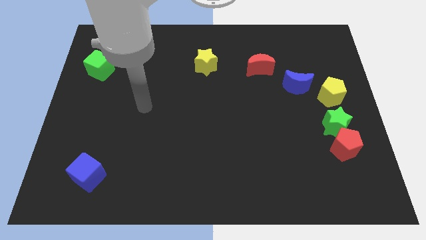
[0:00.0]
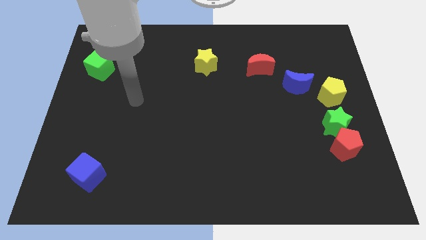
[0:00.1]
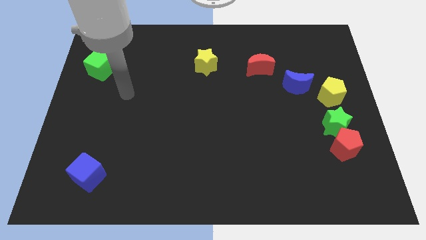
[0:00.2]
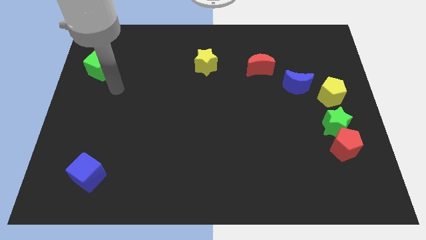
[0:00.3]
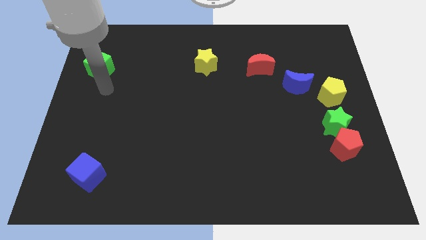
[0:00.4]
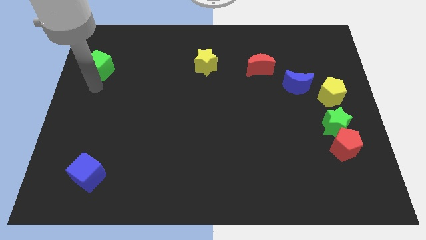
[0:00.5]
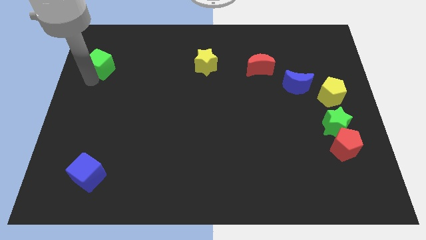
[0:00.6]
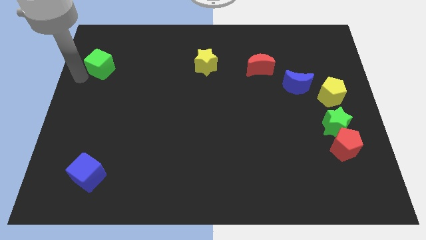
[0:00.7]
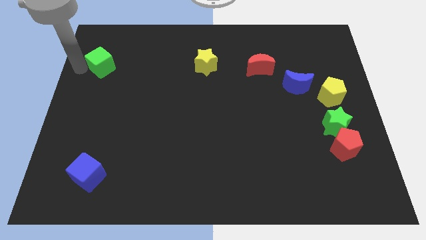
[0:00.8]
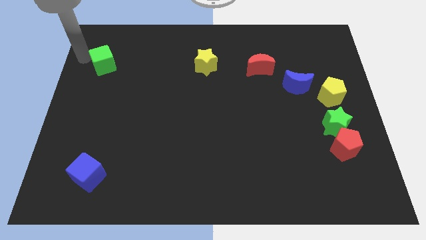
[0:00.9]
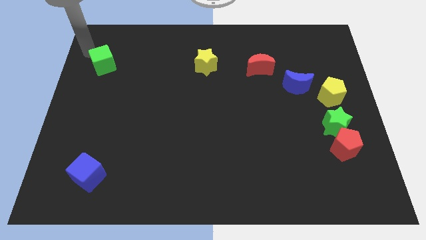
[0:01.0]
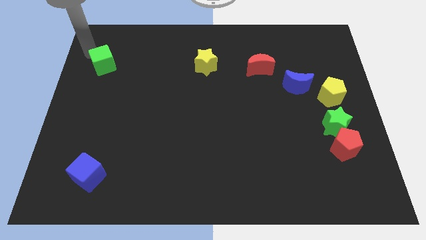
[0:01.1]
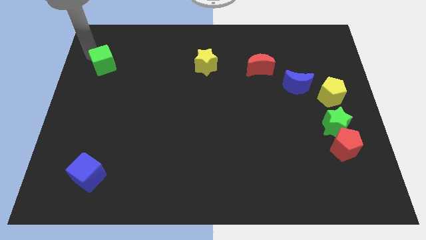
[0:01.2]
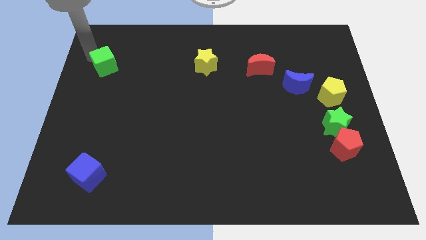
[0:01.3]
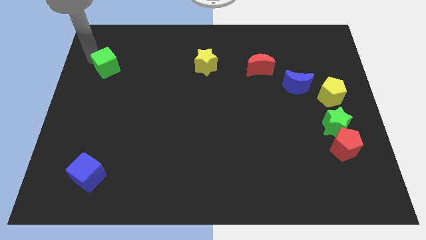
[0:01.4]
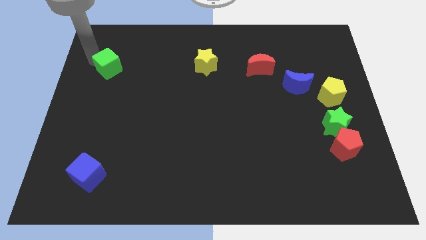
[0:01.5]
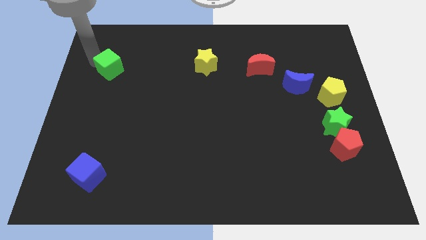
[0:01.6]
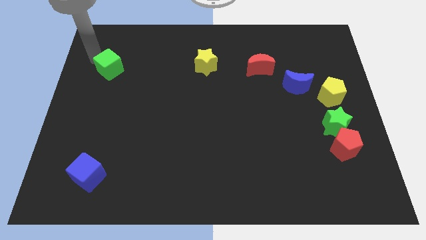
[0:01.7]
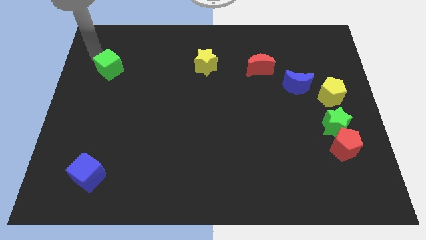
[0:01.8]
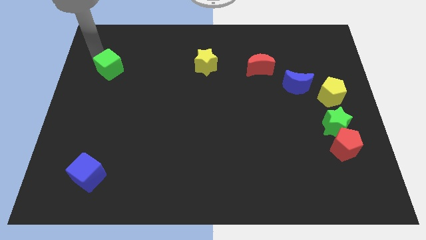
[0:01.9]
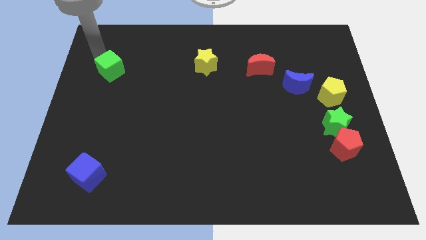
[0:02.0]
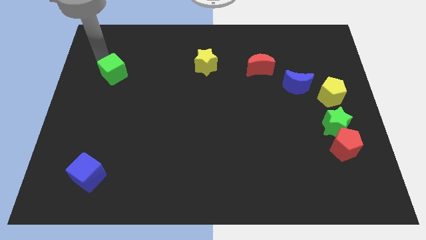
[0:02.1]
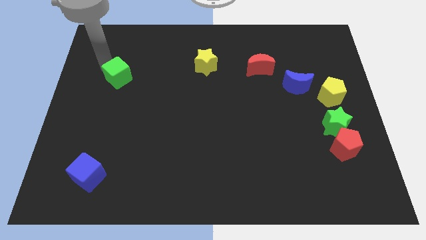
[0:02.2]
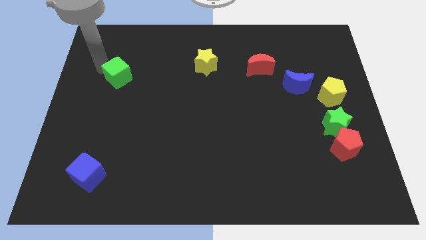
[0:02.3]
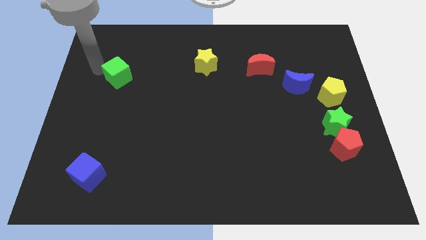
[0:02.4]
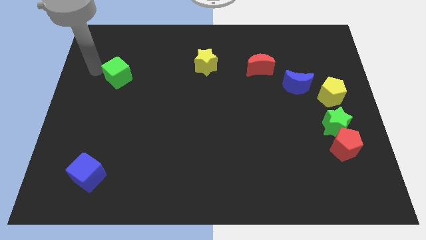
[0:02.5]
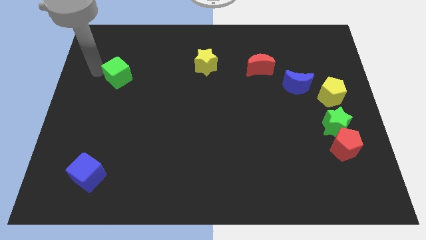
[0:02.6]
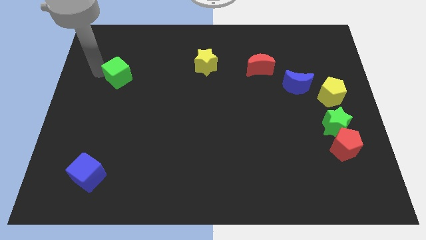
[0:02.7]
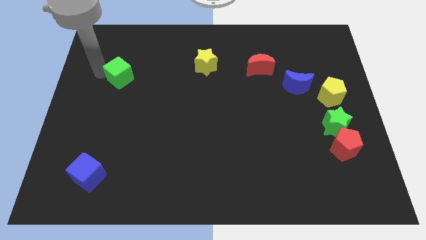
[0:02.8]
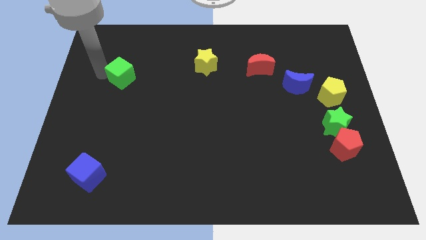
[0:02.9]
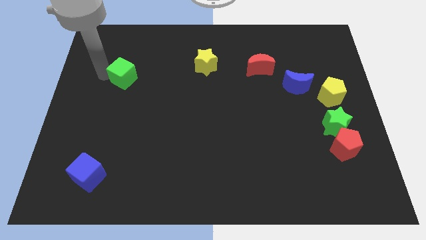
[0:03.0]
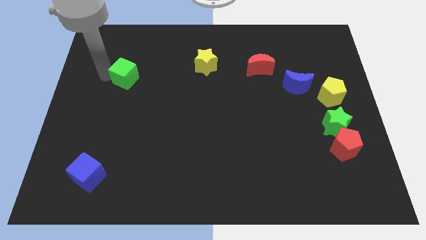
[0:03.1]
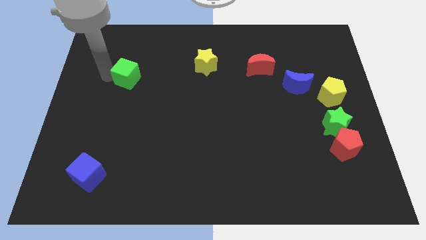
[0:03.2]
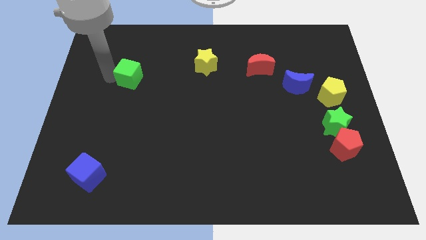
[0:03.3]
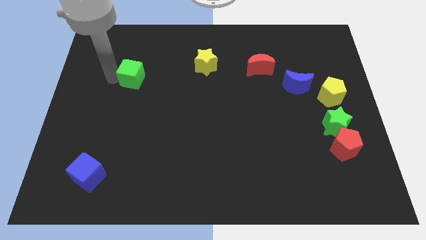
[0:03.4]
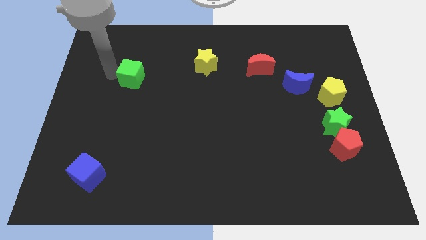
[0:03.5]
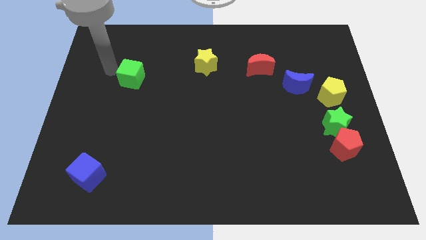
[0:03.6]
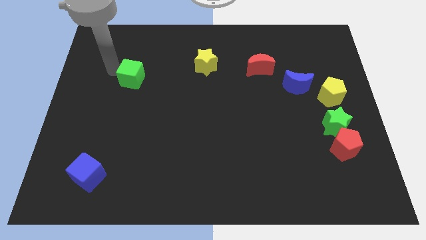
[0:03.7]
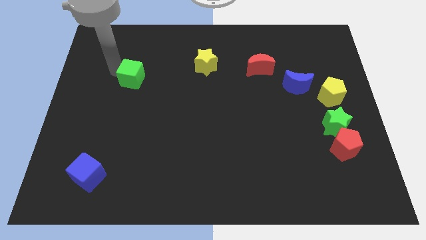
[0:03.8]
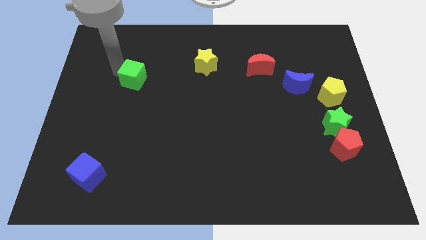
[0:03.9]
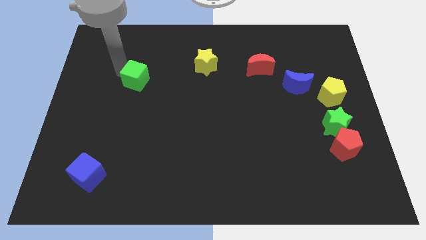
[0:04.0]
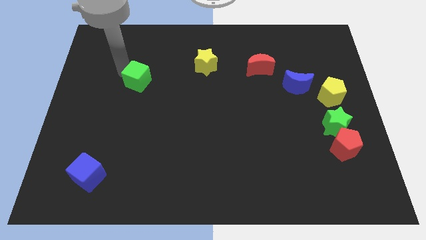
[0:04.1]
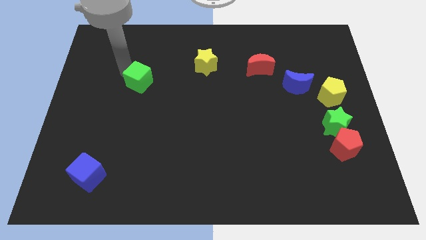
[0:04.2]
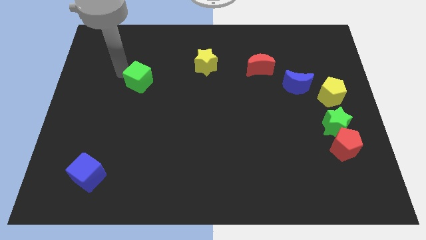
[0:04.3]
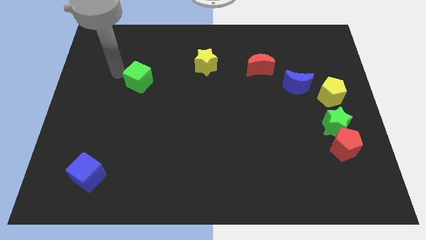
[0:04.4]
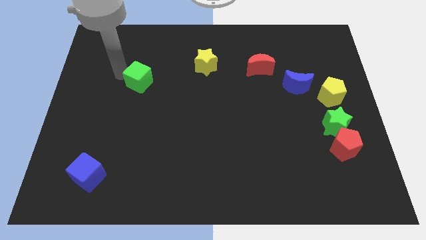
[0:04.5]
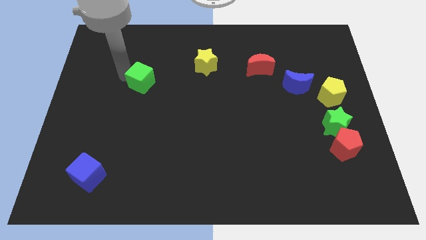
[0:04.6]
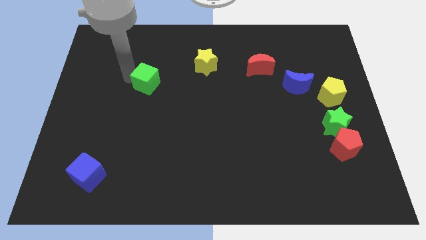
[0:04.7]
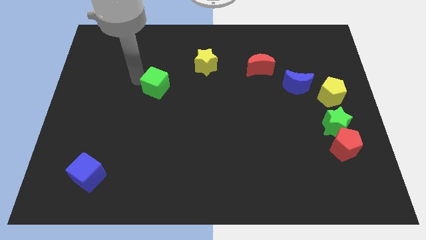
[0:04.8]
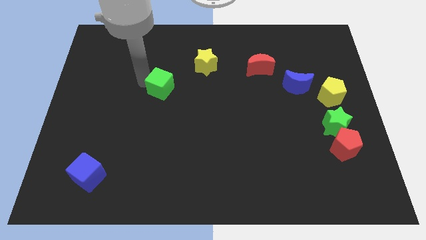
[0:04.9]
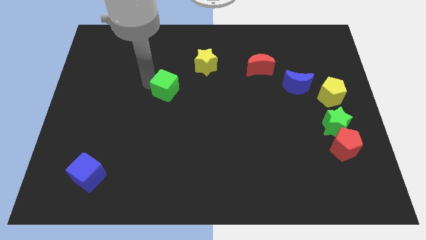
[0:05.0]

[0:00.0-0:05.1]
put the green cube to the center

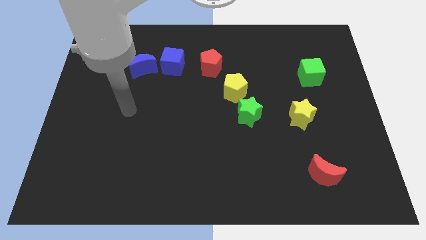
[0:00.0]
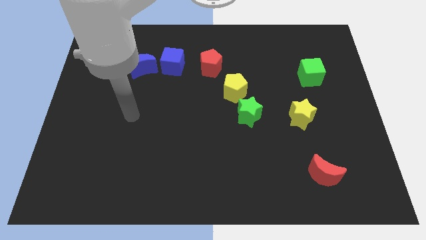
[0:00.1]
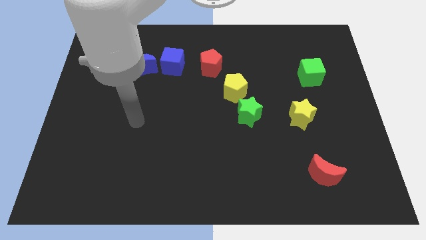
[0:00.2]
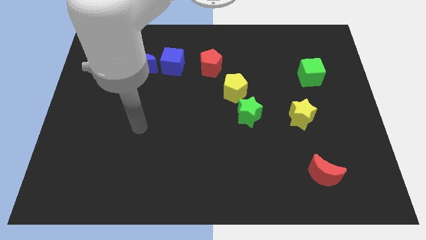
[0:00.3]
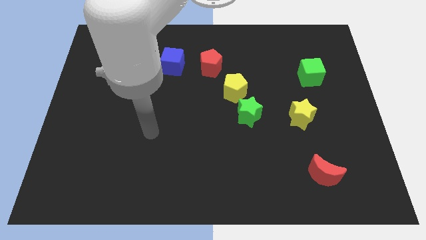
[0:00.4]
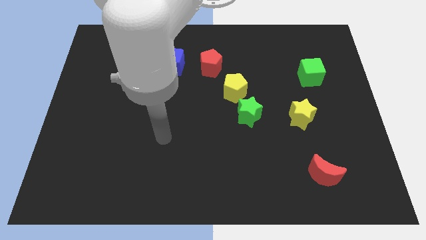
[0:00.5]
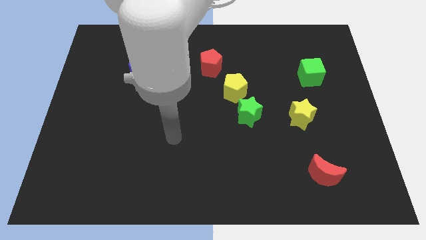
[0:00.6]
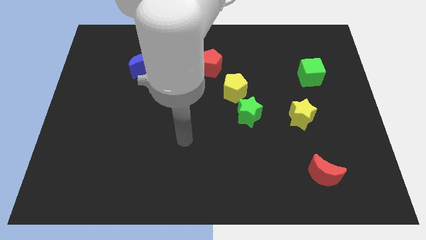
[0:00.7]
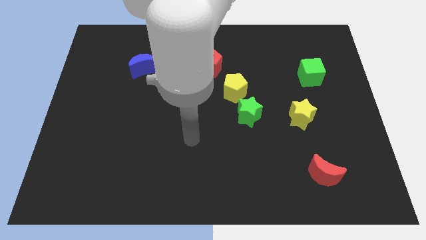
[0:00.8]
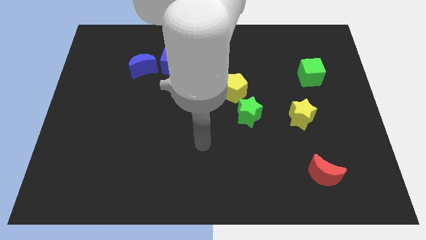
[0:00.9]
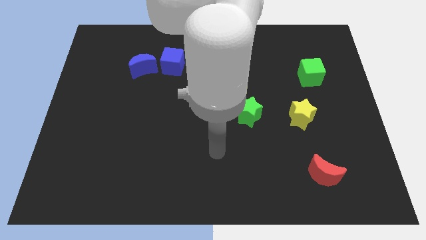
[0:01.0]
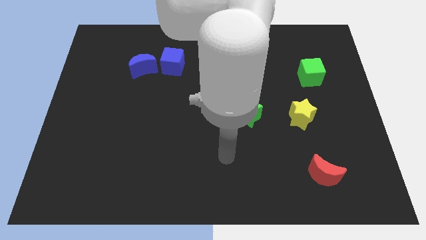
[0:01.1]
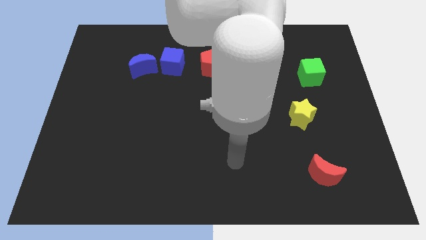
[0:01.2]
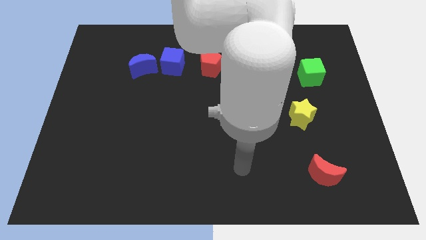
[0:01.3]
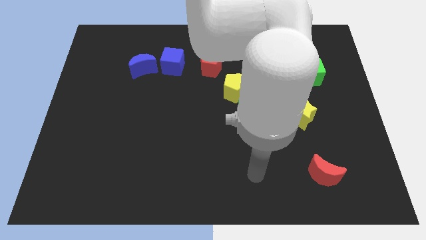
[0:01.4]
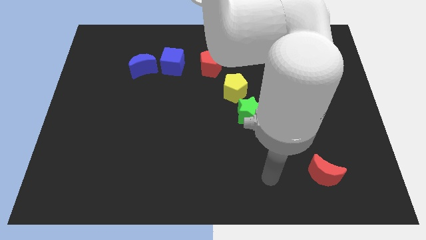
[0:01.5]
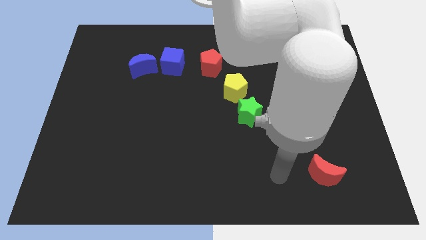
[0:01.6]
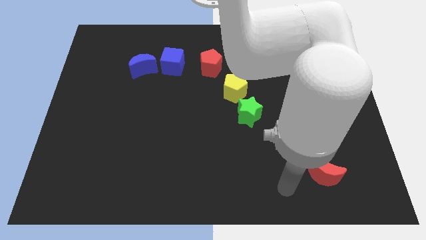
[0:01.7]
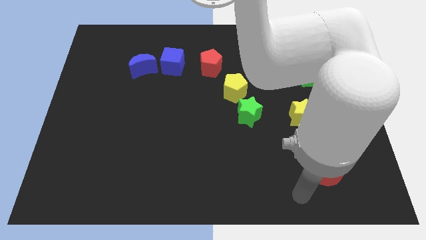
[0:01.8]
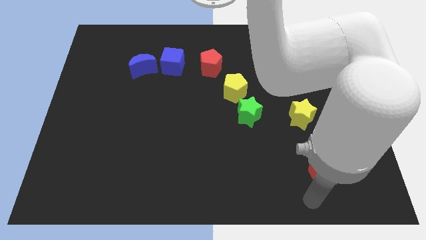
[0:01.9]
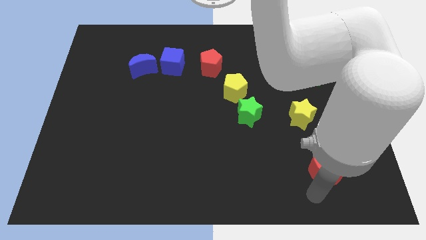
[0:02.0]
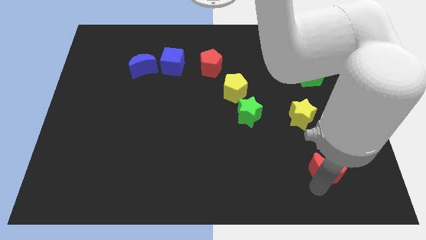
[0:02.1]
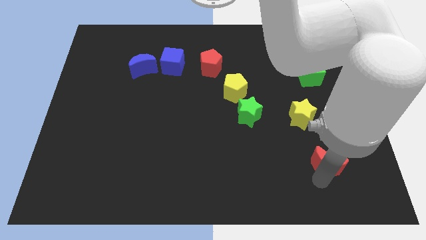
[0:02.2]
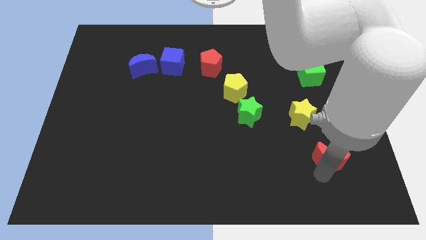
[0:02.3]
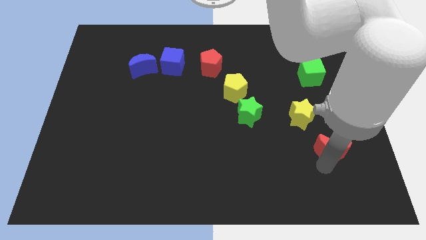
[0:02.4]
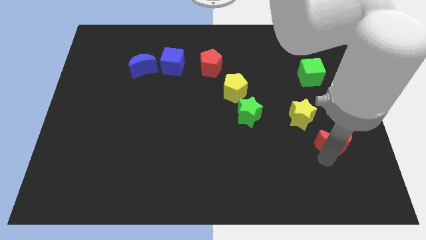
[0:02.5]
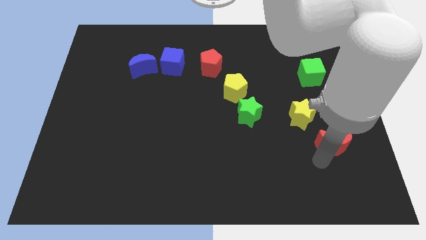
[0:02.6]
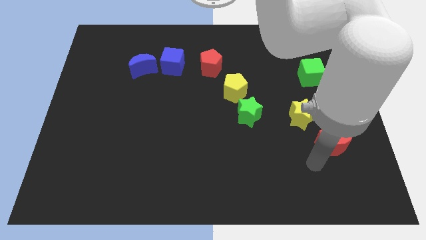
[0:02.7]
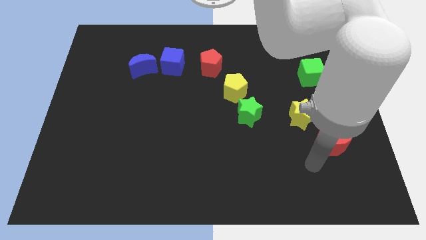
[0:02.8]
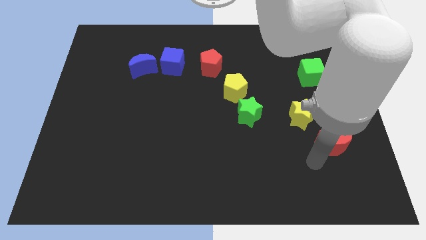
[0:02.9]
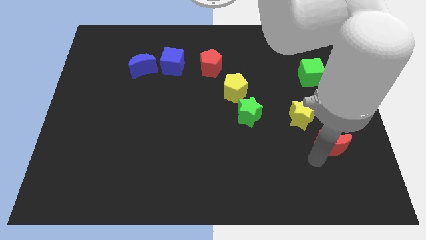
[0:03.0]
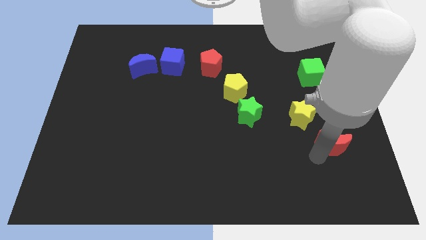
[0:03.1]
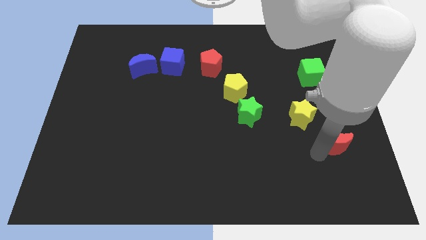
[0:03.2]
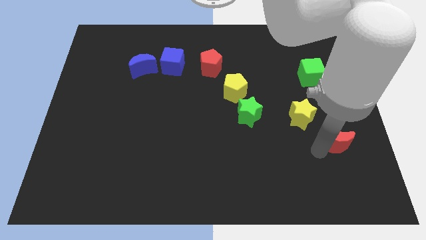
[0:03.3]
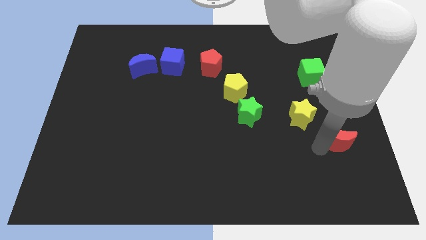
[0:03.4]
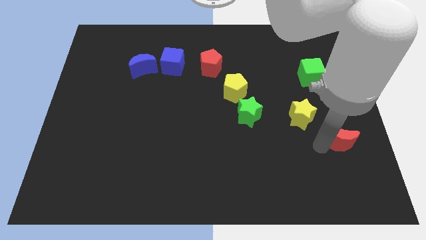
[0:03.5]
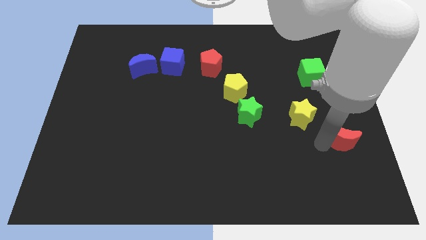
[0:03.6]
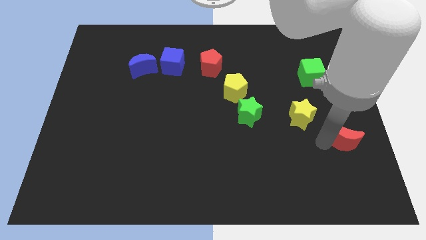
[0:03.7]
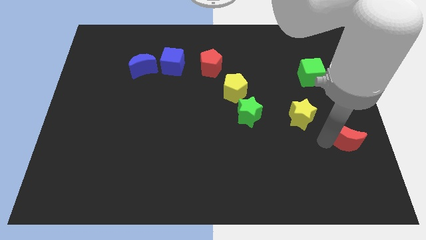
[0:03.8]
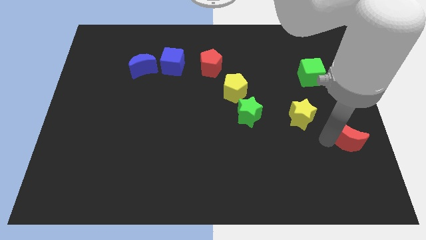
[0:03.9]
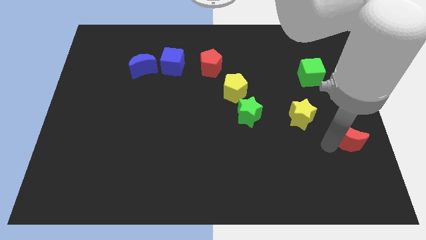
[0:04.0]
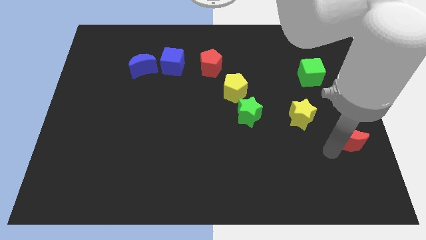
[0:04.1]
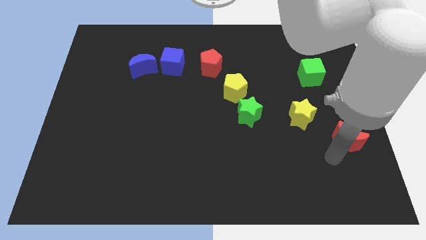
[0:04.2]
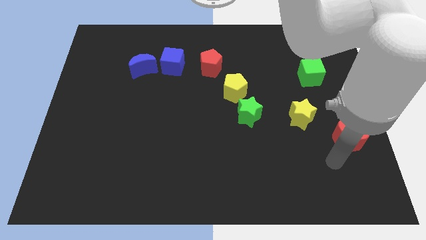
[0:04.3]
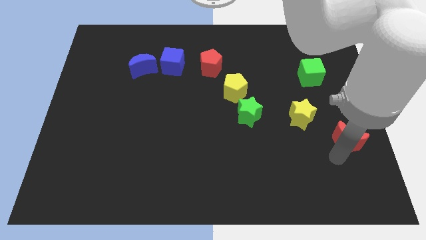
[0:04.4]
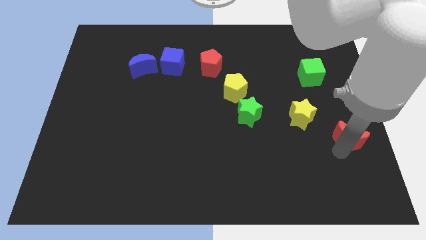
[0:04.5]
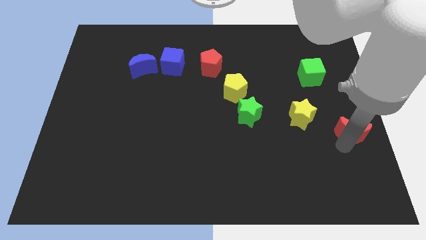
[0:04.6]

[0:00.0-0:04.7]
put the red moon to the right side of the board
